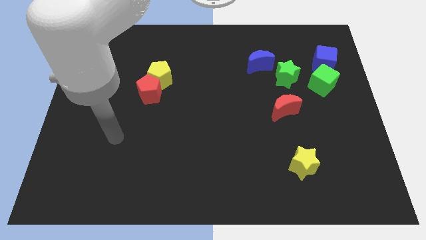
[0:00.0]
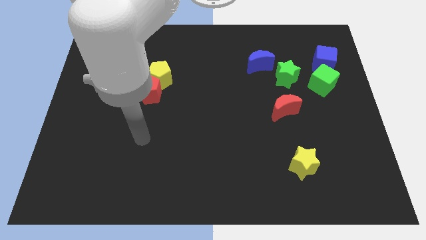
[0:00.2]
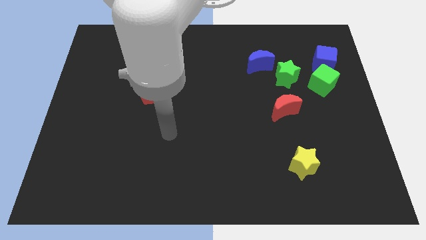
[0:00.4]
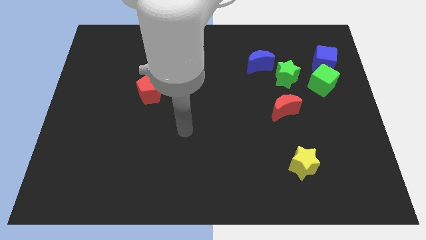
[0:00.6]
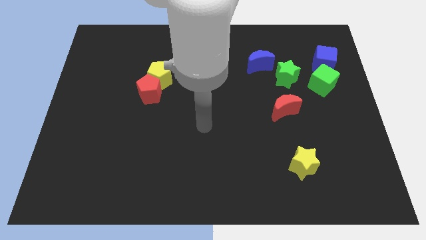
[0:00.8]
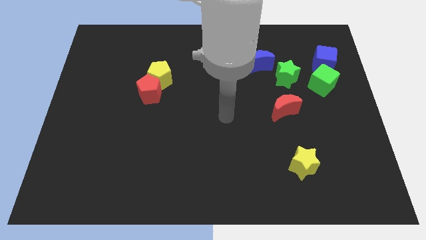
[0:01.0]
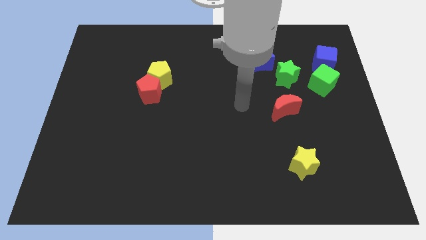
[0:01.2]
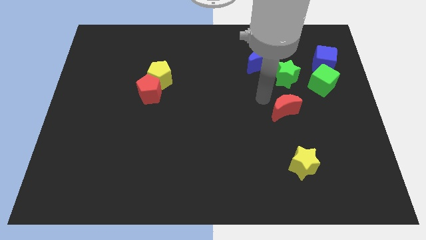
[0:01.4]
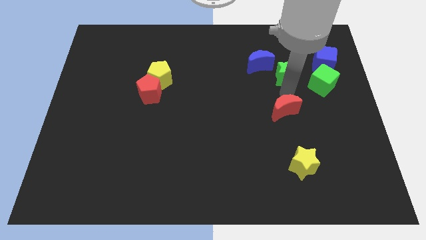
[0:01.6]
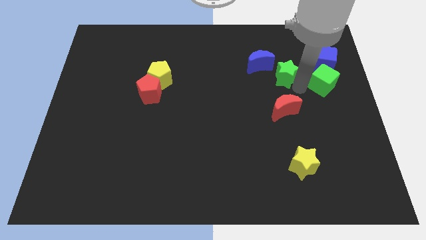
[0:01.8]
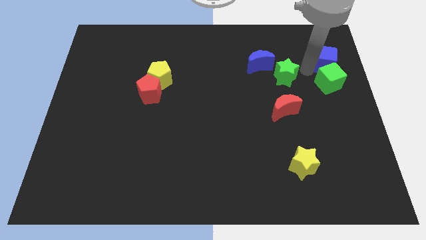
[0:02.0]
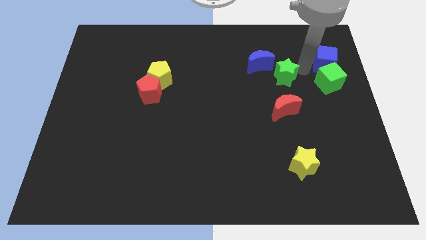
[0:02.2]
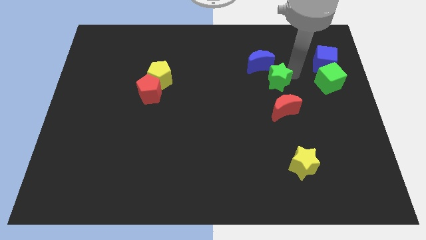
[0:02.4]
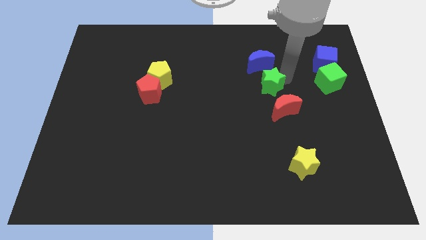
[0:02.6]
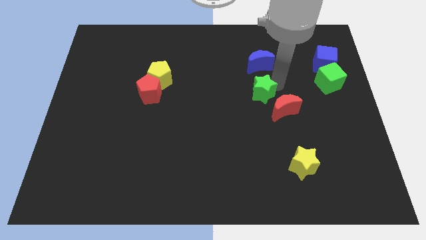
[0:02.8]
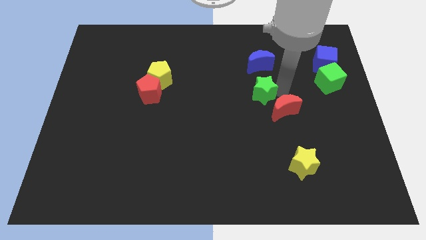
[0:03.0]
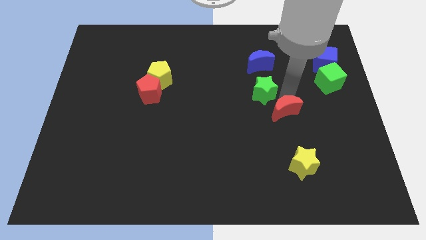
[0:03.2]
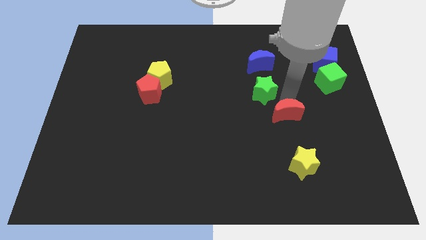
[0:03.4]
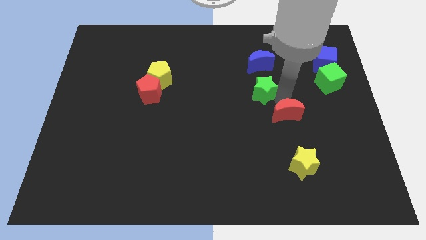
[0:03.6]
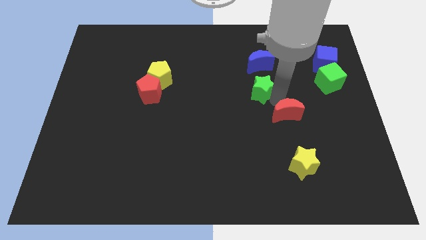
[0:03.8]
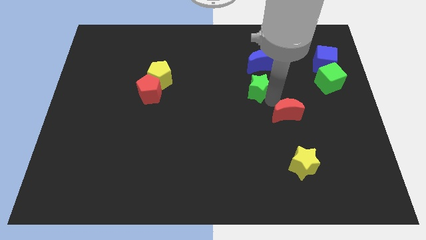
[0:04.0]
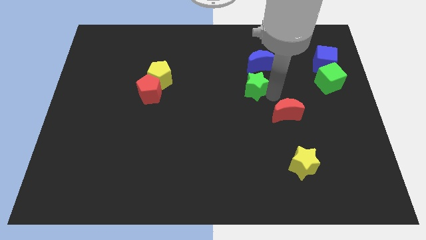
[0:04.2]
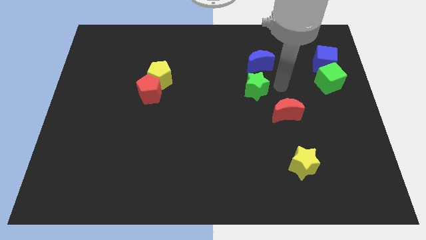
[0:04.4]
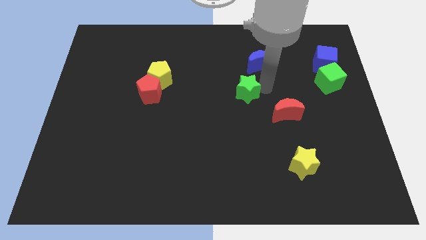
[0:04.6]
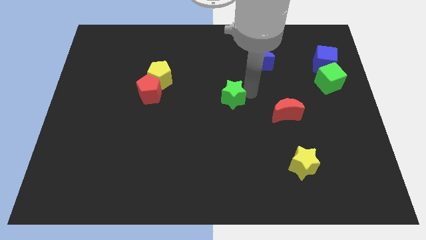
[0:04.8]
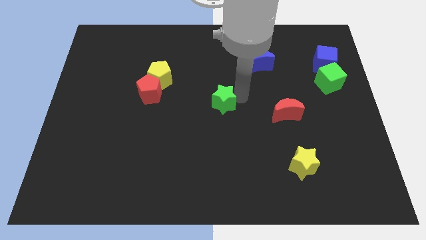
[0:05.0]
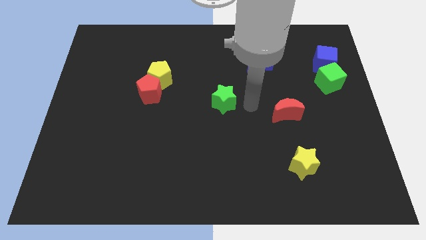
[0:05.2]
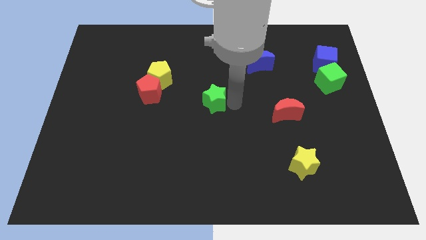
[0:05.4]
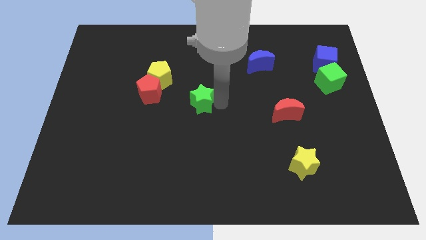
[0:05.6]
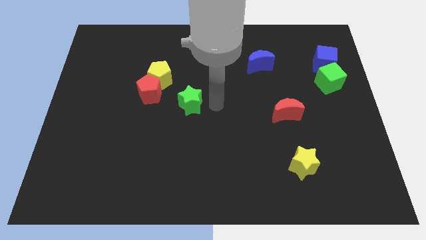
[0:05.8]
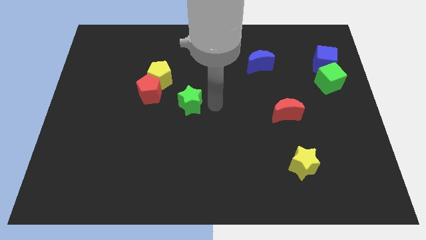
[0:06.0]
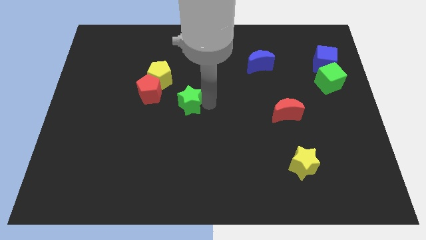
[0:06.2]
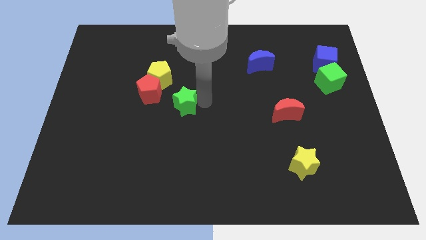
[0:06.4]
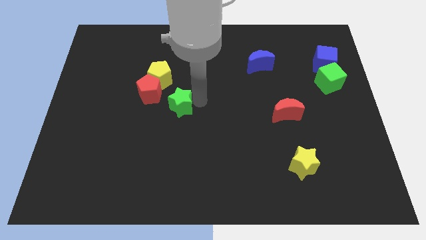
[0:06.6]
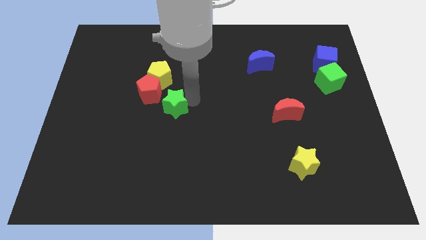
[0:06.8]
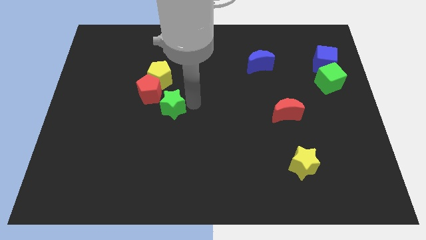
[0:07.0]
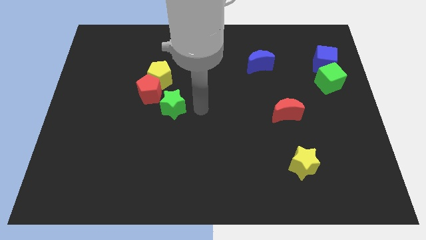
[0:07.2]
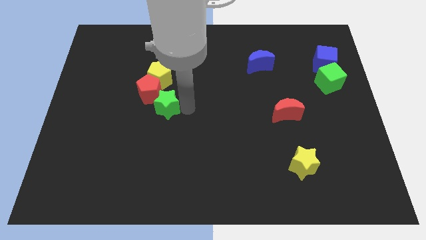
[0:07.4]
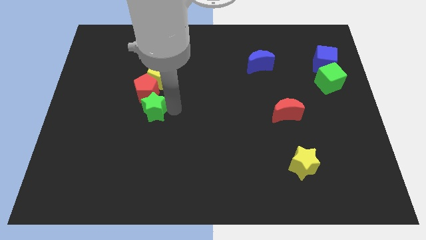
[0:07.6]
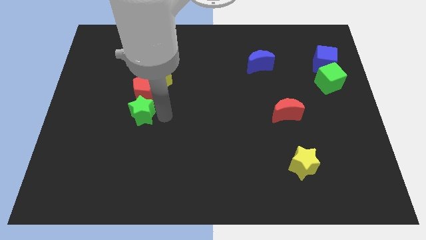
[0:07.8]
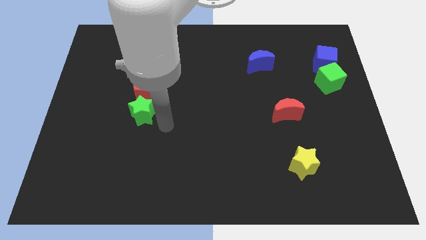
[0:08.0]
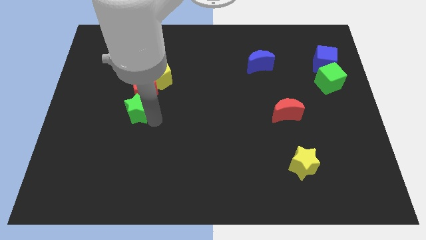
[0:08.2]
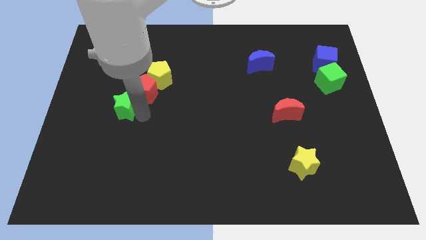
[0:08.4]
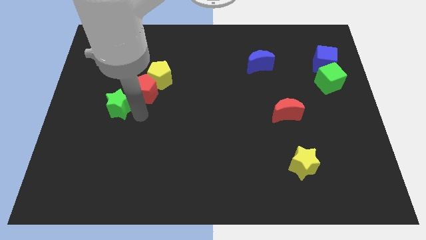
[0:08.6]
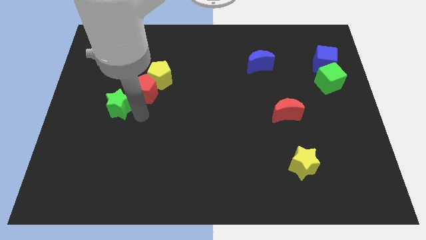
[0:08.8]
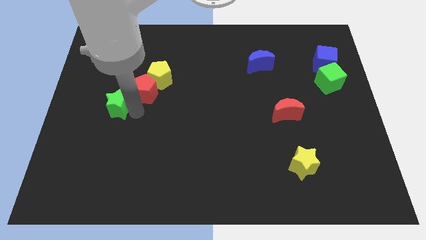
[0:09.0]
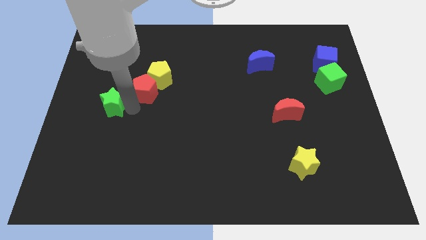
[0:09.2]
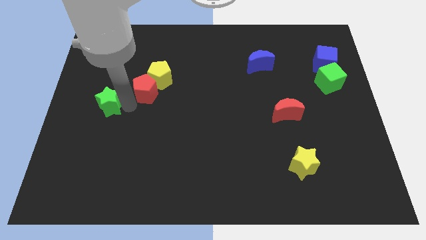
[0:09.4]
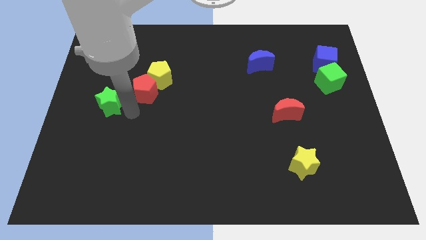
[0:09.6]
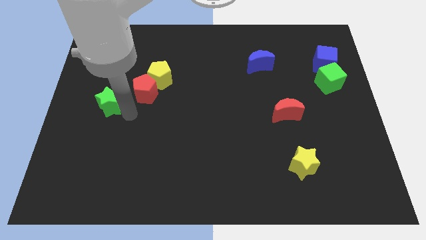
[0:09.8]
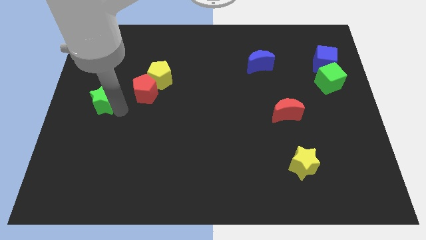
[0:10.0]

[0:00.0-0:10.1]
push the green star to the left side of the board

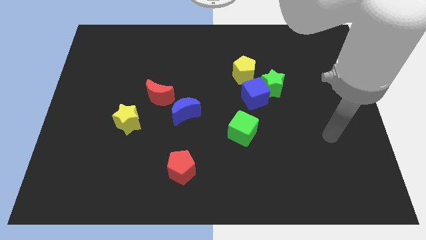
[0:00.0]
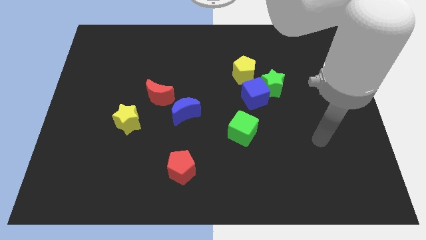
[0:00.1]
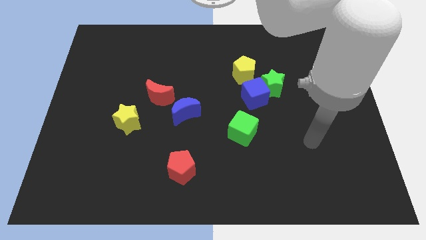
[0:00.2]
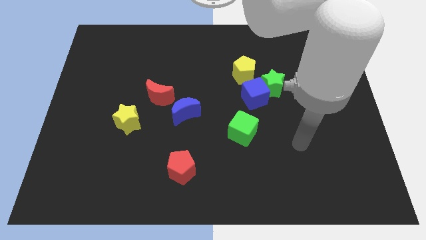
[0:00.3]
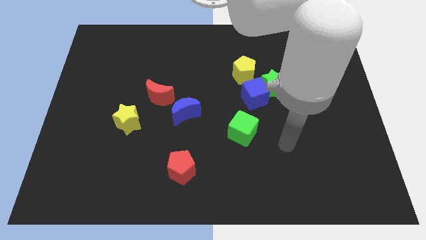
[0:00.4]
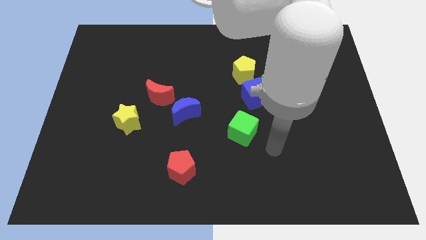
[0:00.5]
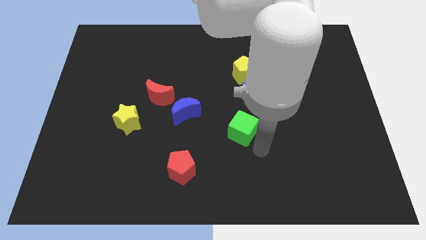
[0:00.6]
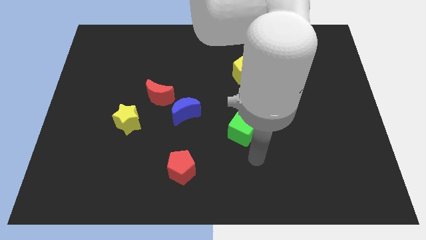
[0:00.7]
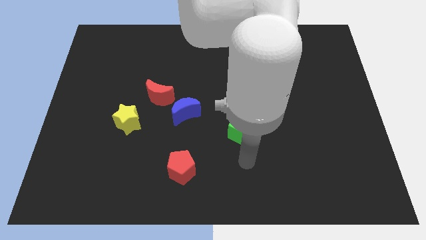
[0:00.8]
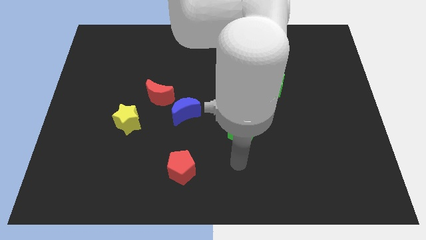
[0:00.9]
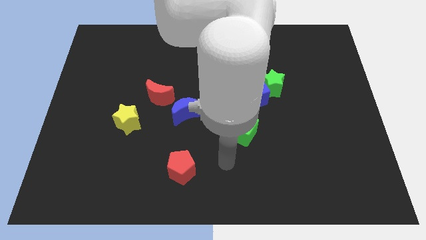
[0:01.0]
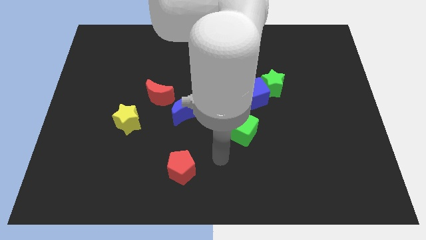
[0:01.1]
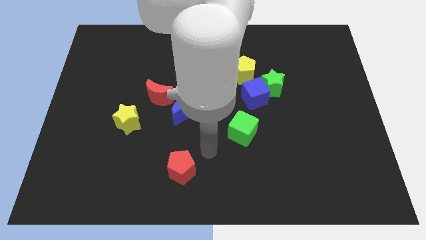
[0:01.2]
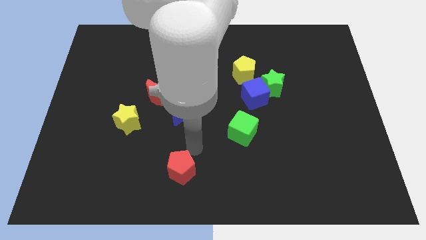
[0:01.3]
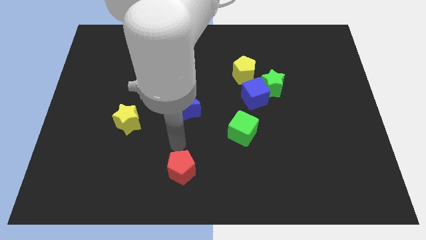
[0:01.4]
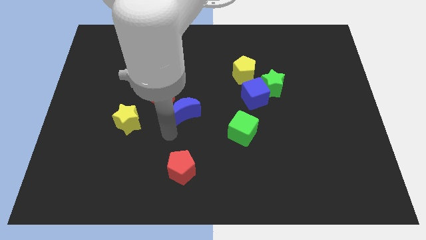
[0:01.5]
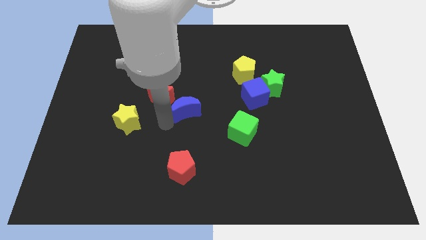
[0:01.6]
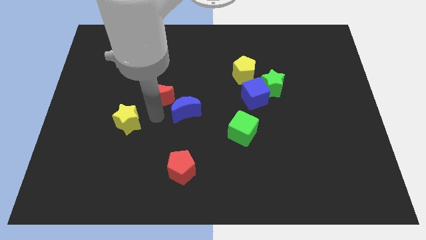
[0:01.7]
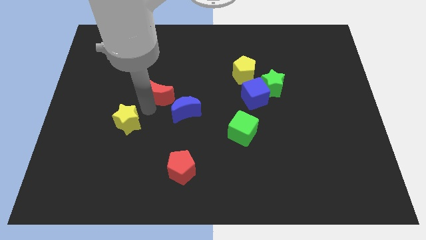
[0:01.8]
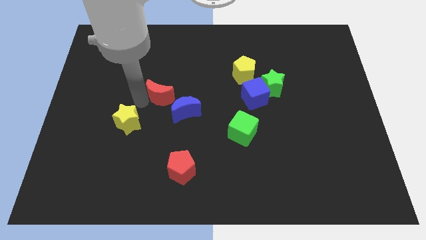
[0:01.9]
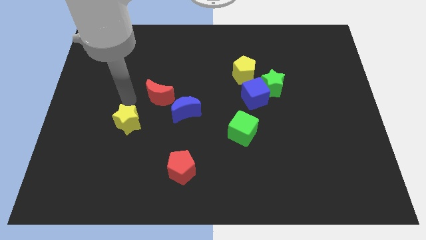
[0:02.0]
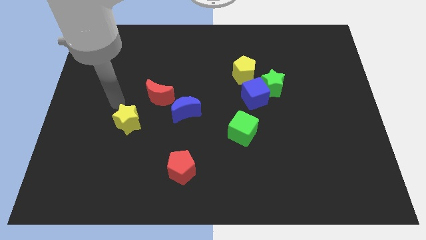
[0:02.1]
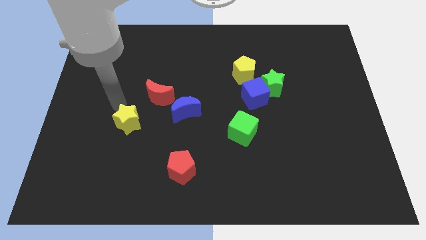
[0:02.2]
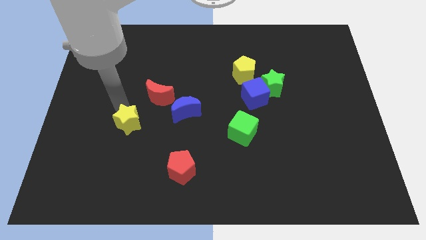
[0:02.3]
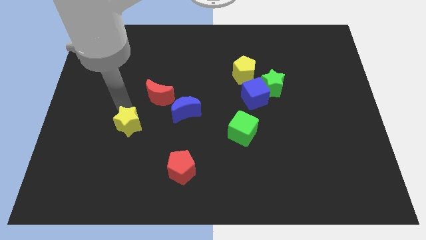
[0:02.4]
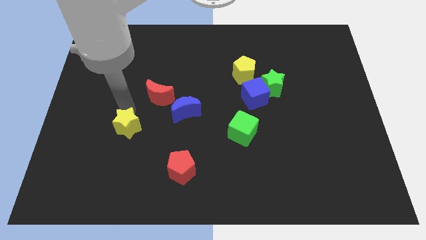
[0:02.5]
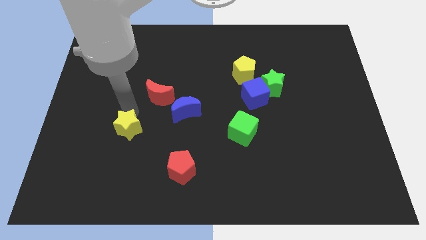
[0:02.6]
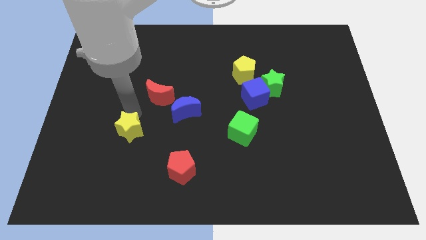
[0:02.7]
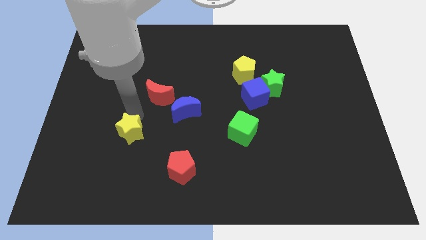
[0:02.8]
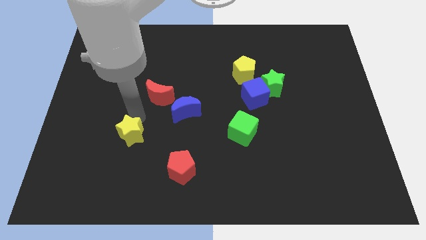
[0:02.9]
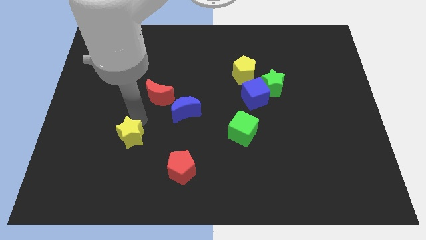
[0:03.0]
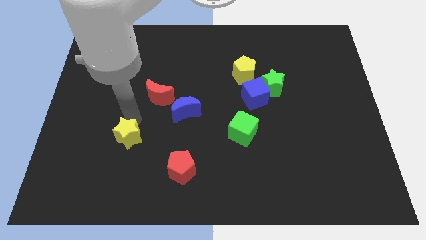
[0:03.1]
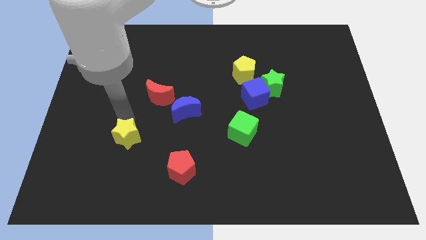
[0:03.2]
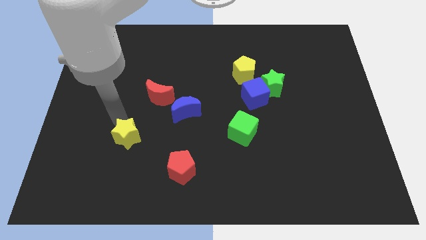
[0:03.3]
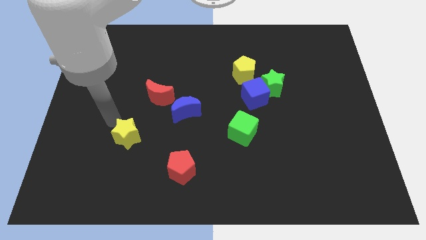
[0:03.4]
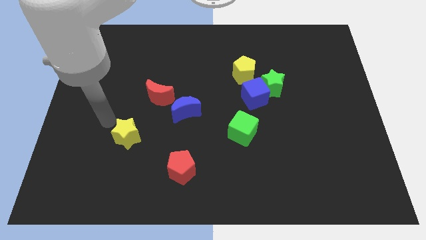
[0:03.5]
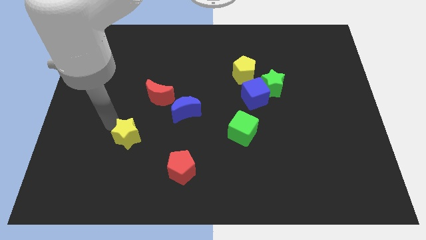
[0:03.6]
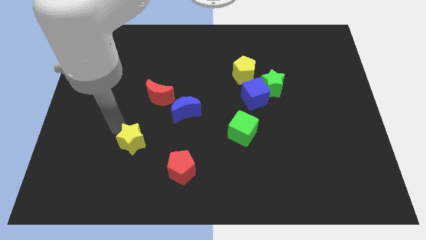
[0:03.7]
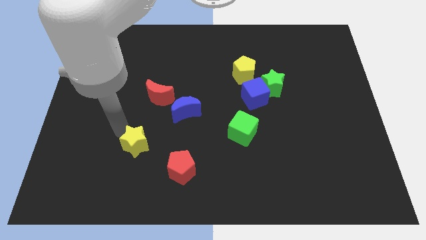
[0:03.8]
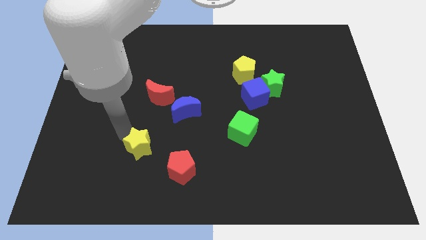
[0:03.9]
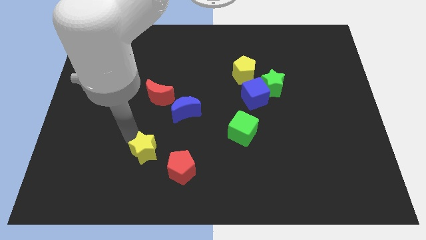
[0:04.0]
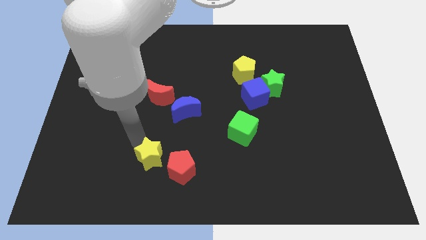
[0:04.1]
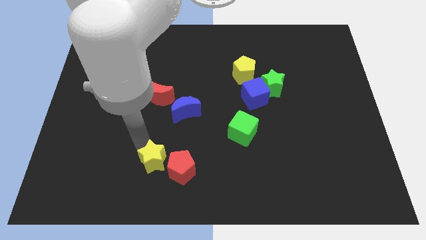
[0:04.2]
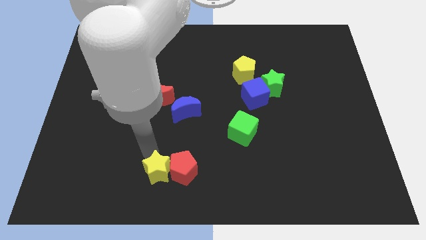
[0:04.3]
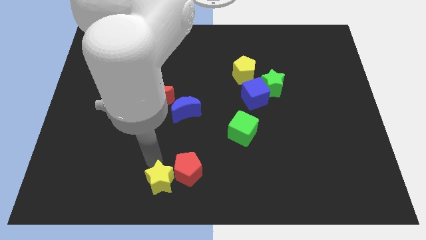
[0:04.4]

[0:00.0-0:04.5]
put the yellow star to the bottom side
